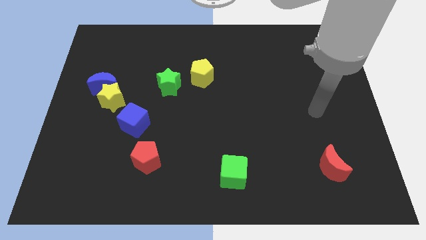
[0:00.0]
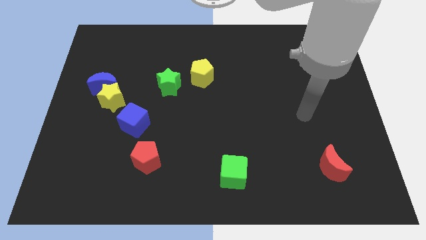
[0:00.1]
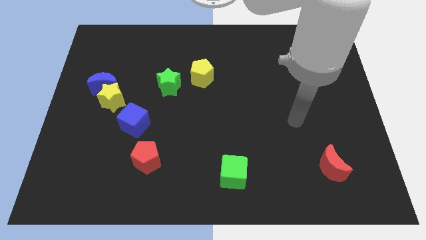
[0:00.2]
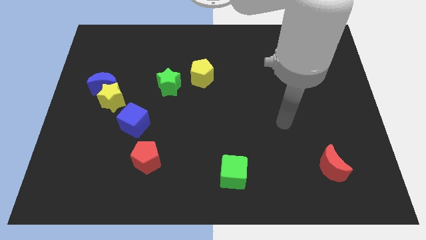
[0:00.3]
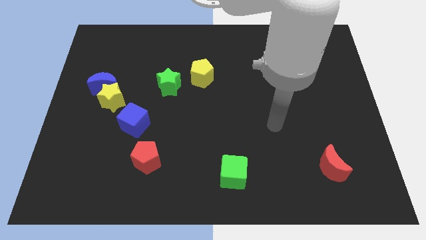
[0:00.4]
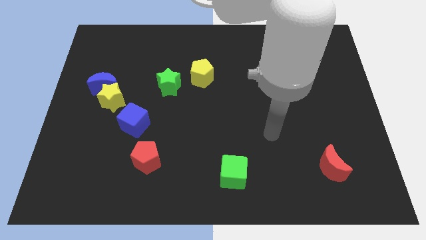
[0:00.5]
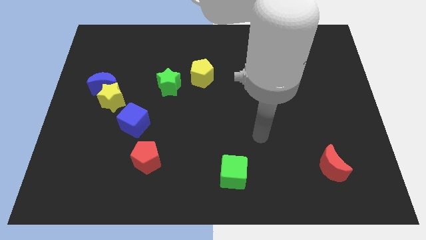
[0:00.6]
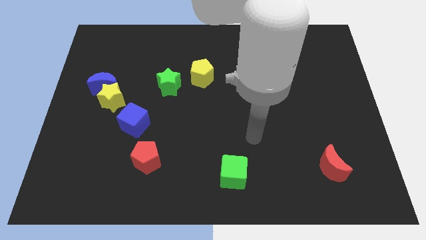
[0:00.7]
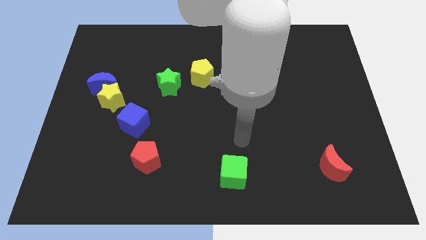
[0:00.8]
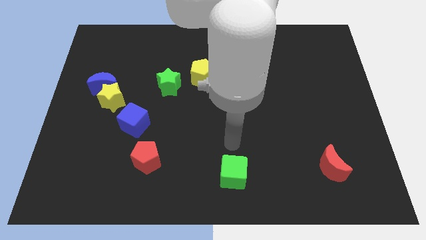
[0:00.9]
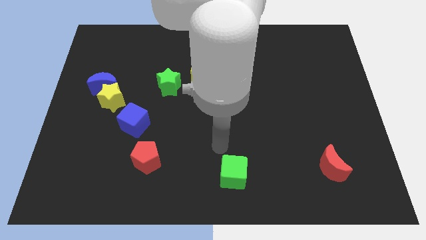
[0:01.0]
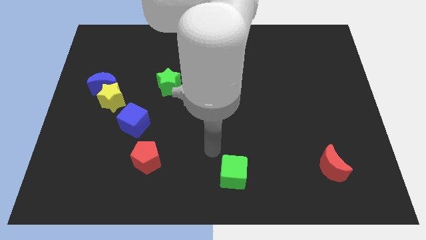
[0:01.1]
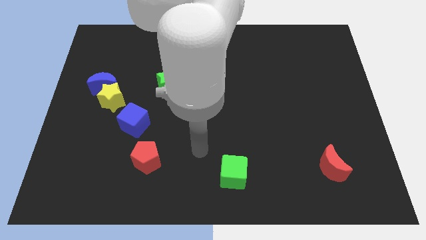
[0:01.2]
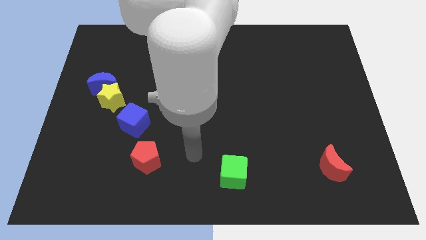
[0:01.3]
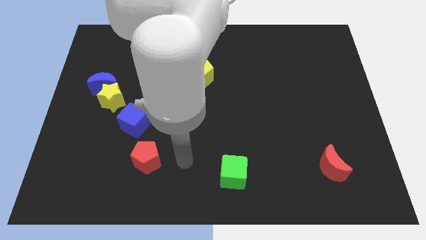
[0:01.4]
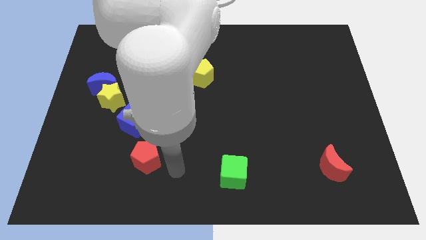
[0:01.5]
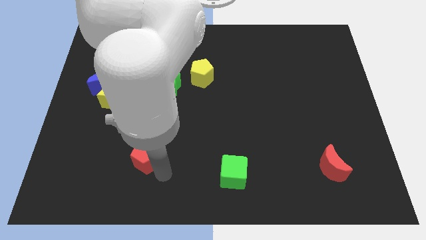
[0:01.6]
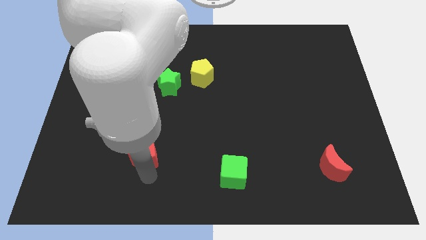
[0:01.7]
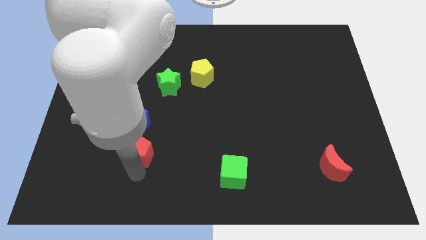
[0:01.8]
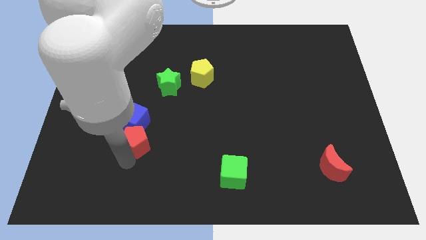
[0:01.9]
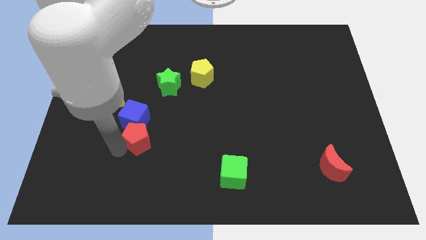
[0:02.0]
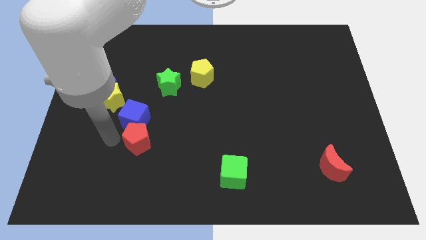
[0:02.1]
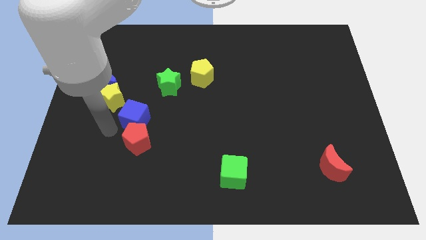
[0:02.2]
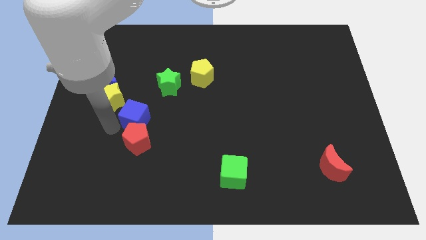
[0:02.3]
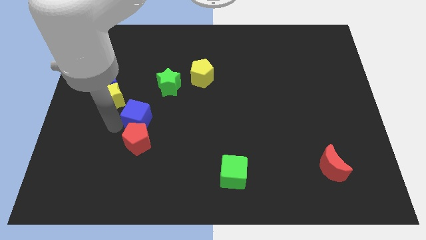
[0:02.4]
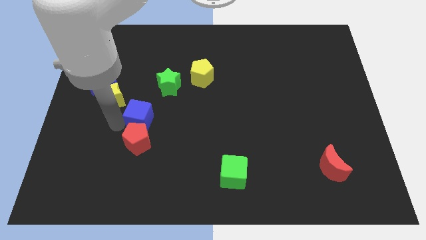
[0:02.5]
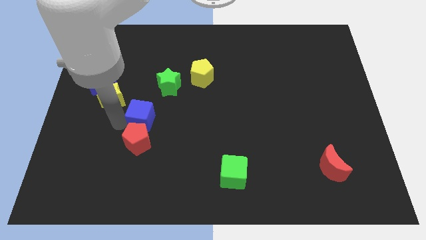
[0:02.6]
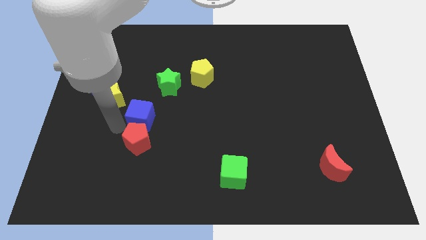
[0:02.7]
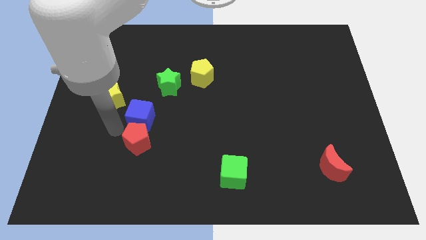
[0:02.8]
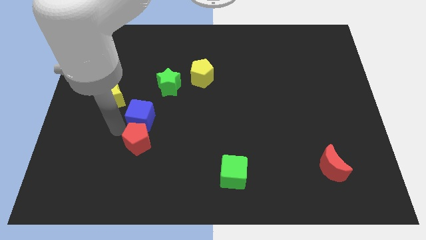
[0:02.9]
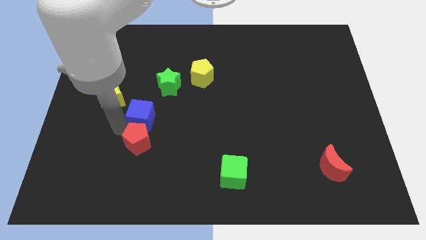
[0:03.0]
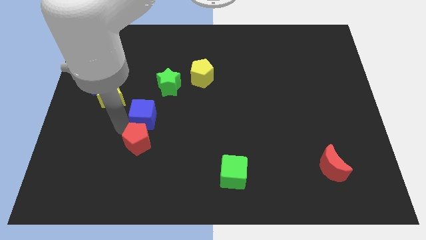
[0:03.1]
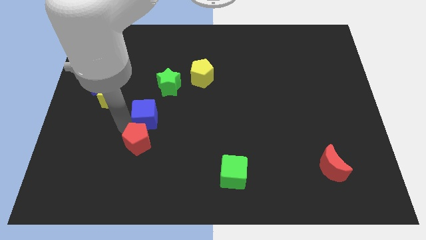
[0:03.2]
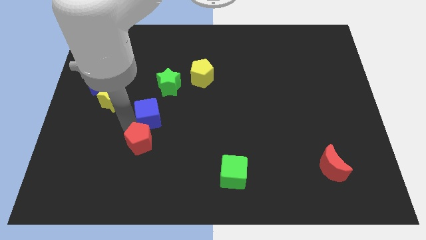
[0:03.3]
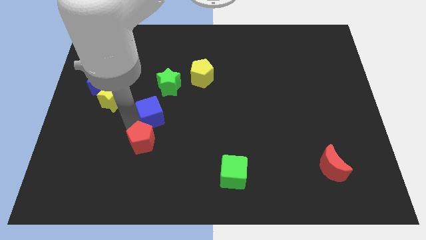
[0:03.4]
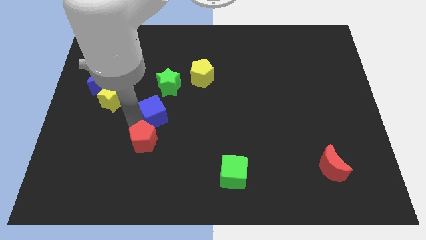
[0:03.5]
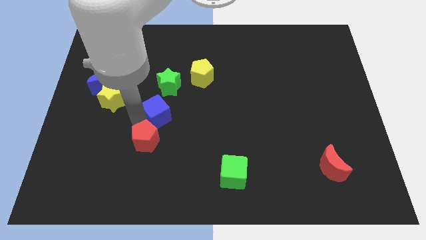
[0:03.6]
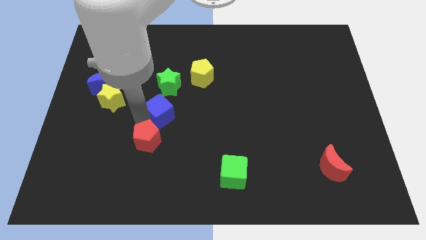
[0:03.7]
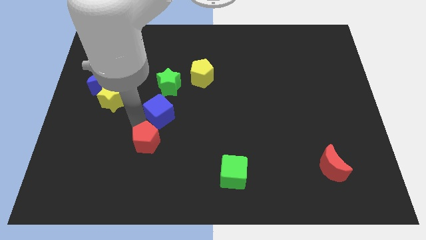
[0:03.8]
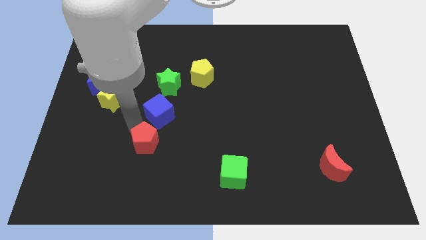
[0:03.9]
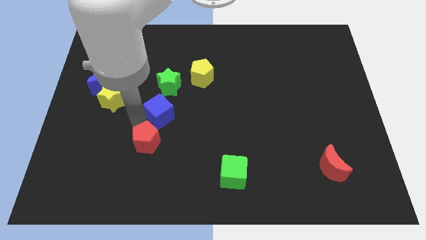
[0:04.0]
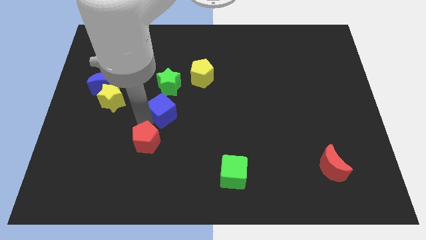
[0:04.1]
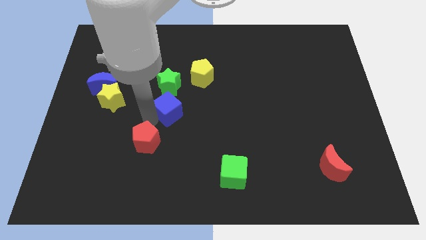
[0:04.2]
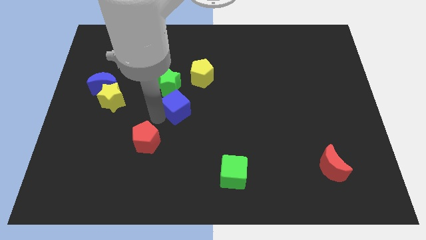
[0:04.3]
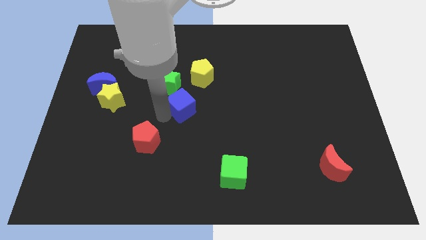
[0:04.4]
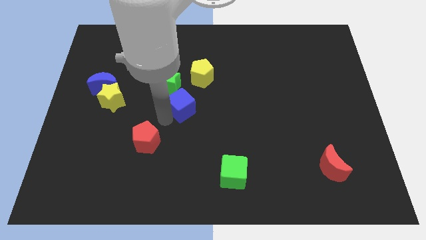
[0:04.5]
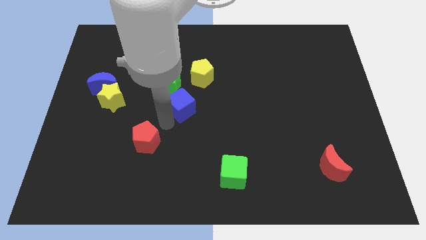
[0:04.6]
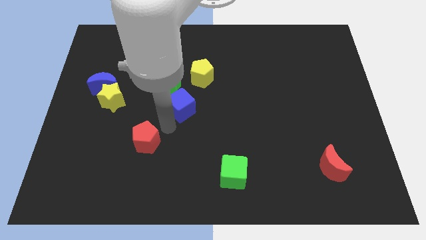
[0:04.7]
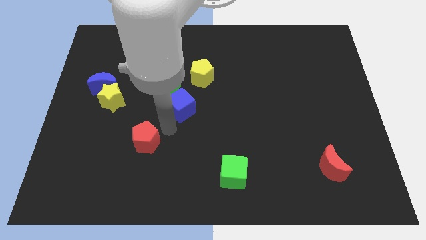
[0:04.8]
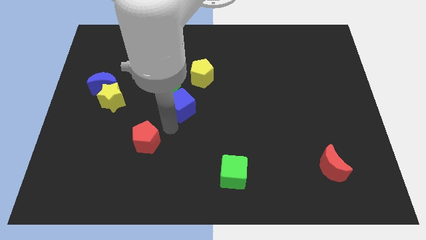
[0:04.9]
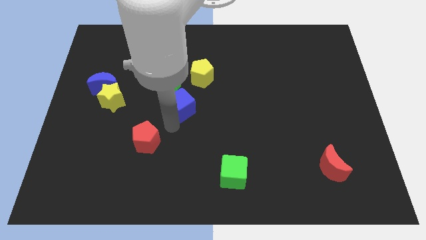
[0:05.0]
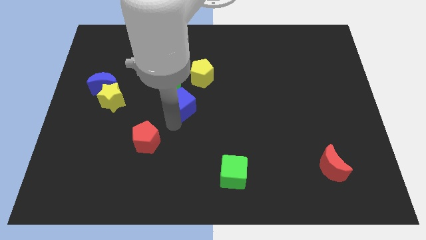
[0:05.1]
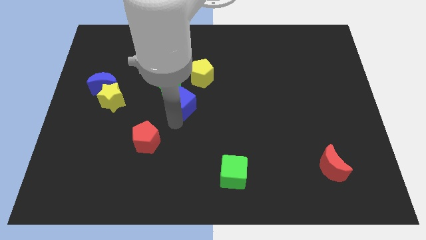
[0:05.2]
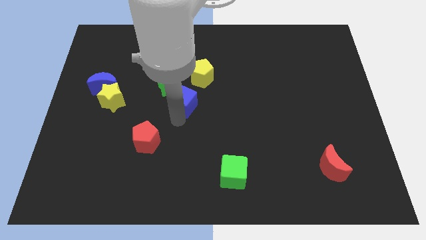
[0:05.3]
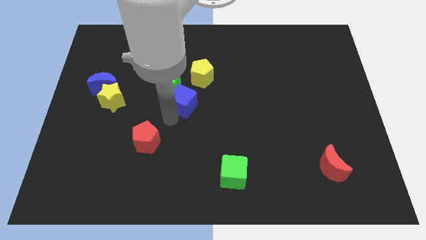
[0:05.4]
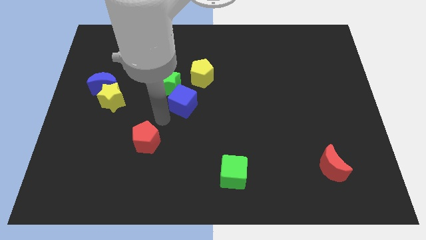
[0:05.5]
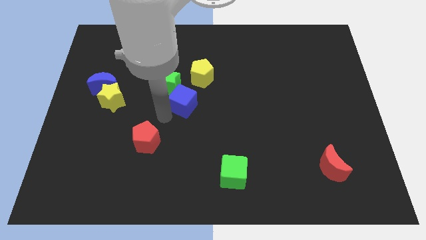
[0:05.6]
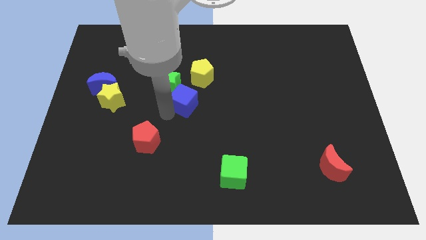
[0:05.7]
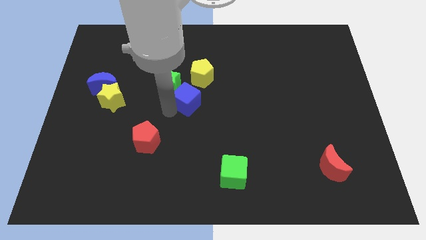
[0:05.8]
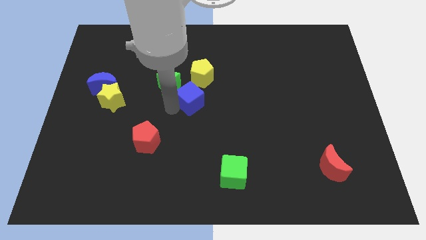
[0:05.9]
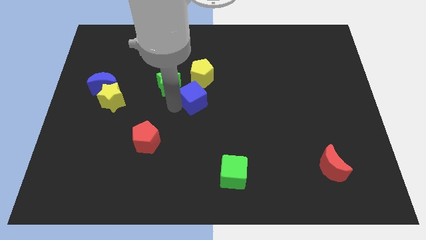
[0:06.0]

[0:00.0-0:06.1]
move the blue cube just right of the green star

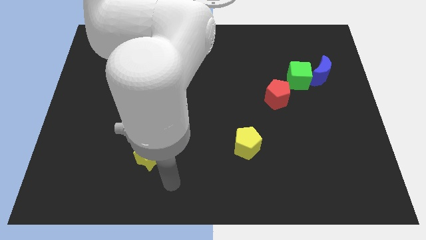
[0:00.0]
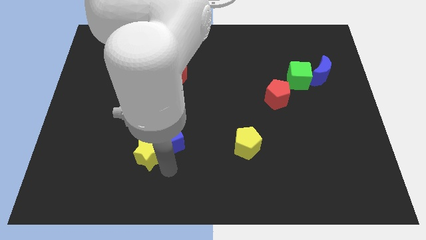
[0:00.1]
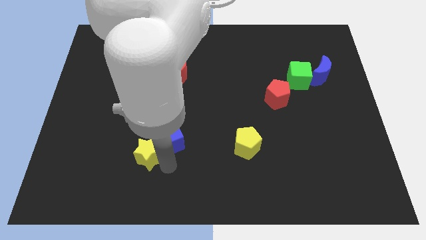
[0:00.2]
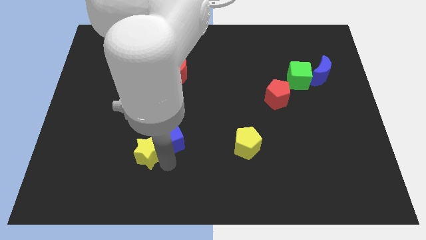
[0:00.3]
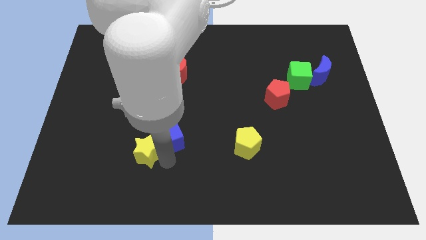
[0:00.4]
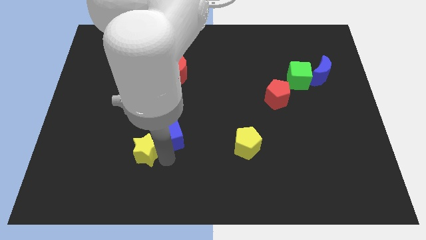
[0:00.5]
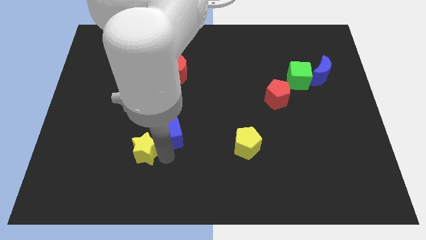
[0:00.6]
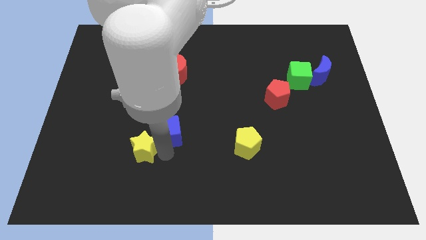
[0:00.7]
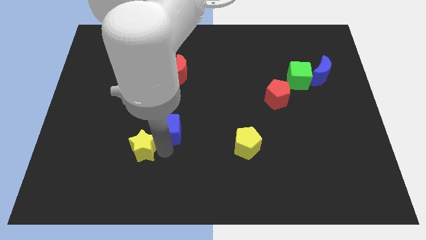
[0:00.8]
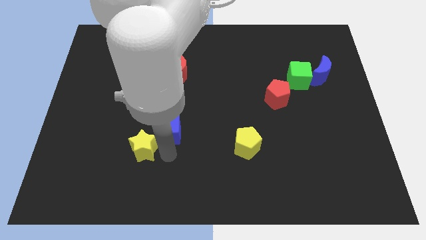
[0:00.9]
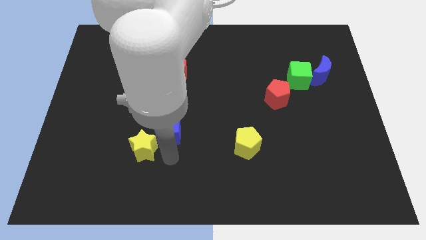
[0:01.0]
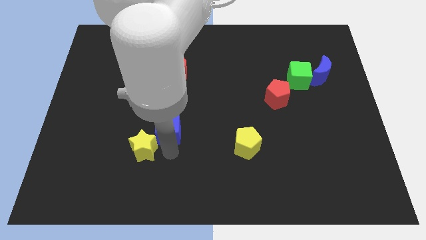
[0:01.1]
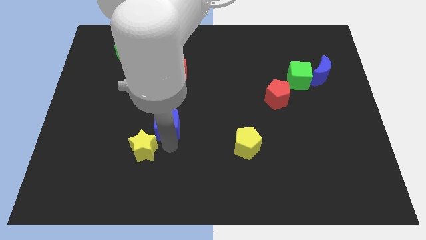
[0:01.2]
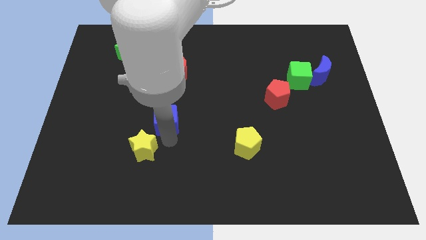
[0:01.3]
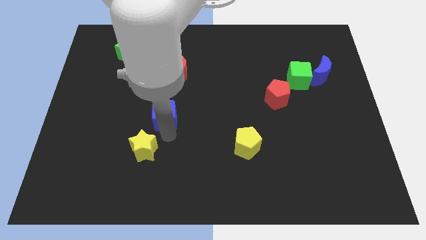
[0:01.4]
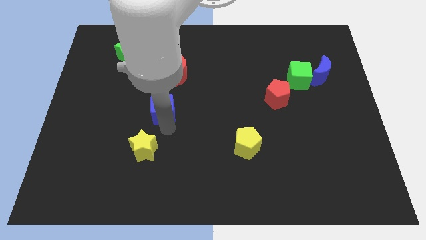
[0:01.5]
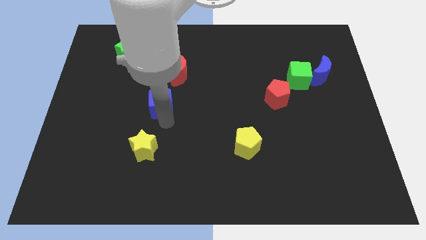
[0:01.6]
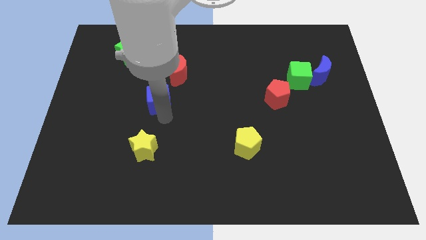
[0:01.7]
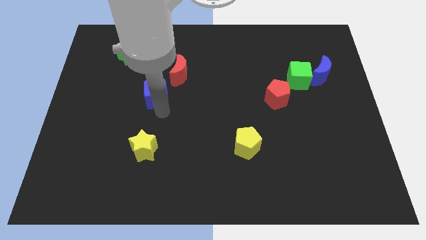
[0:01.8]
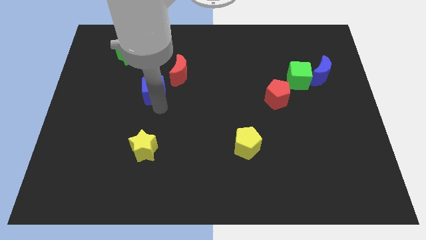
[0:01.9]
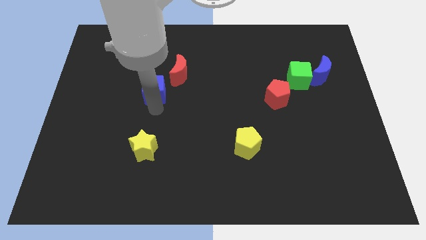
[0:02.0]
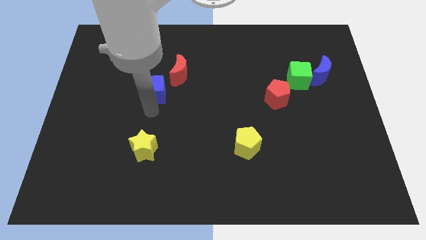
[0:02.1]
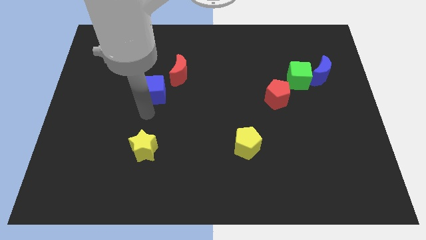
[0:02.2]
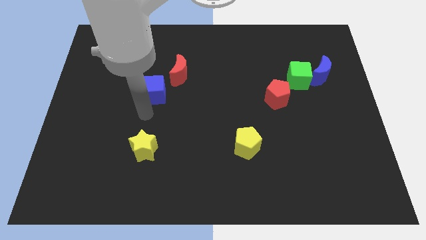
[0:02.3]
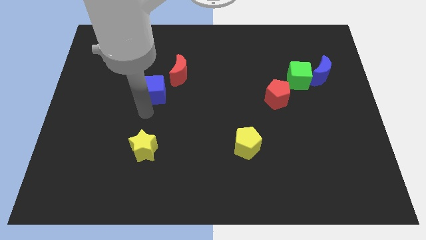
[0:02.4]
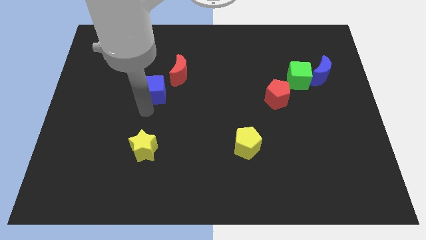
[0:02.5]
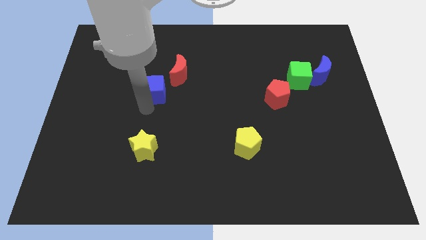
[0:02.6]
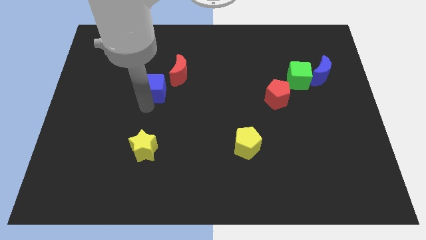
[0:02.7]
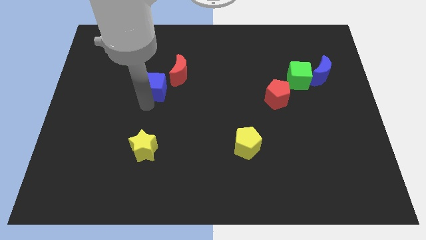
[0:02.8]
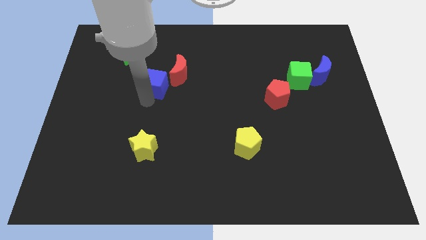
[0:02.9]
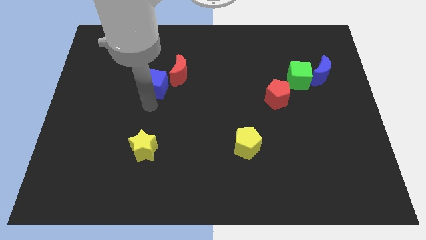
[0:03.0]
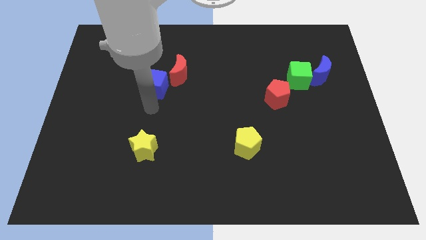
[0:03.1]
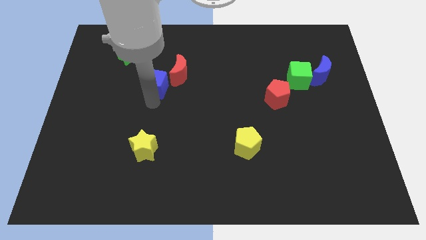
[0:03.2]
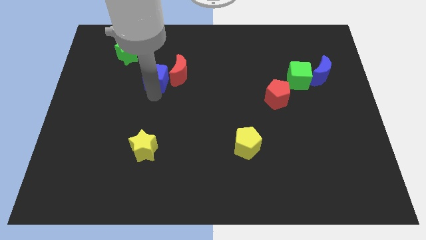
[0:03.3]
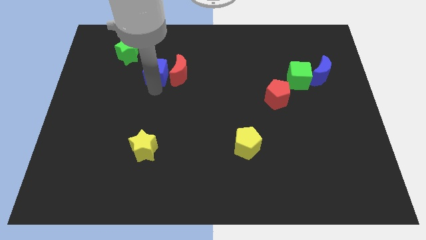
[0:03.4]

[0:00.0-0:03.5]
put the blue cube diagonally up and to the left of the red moon
